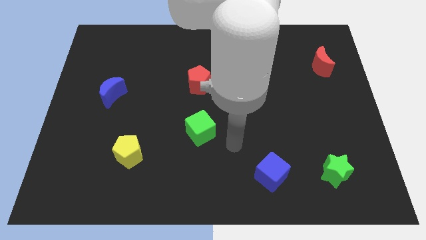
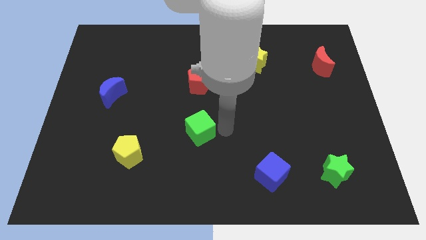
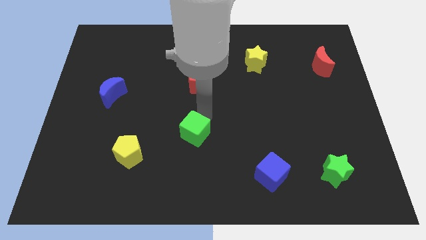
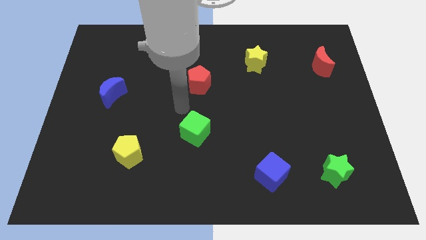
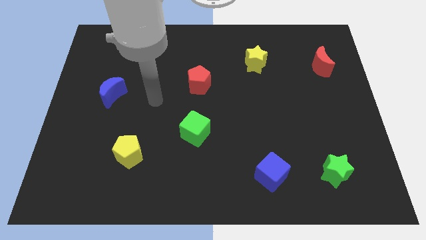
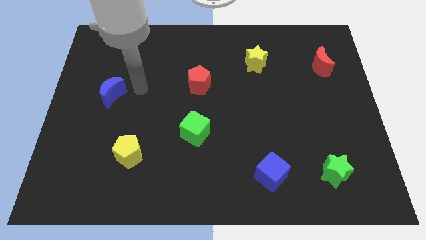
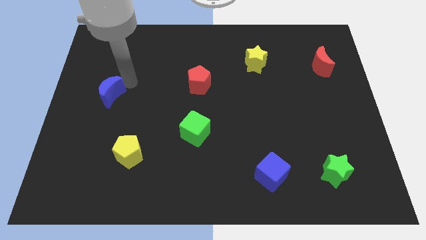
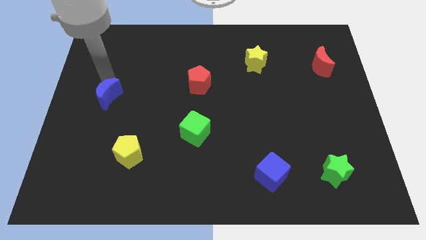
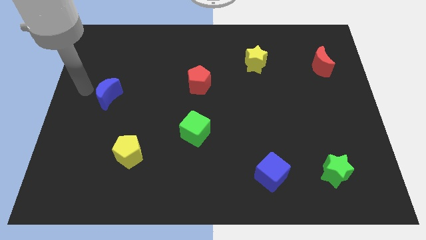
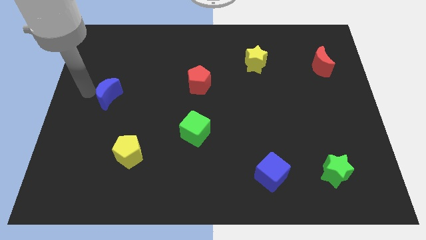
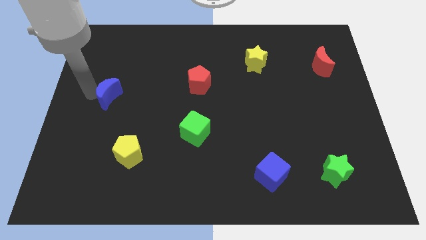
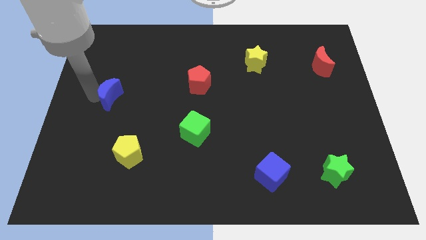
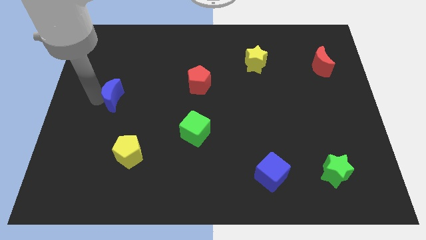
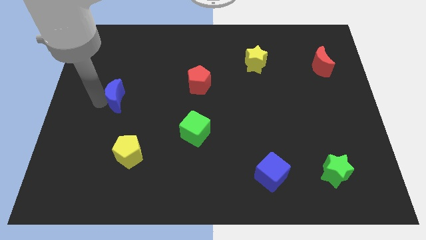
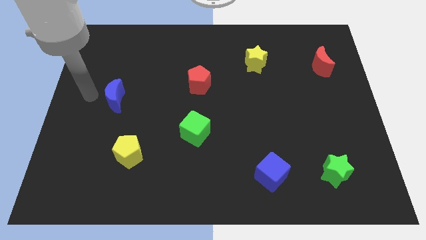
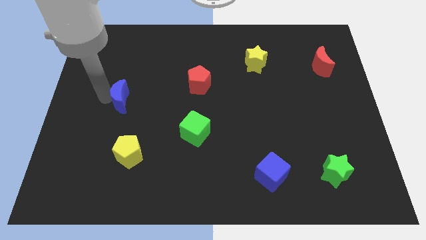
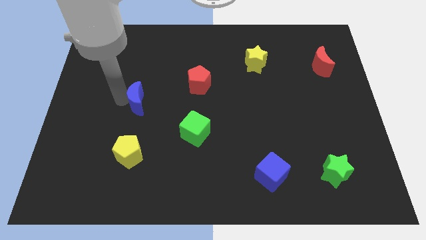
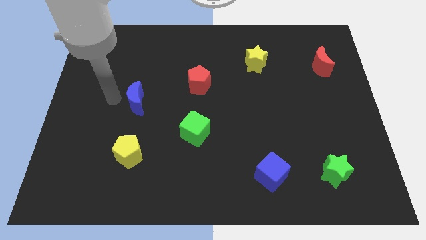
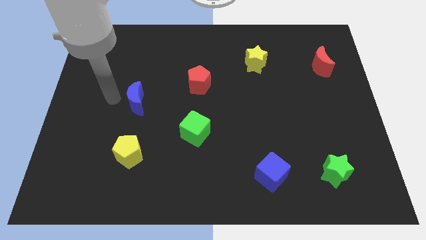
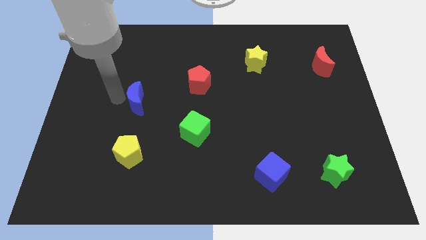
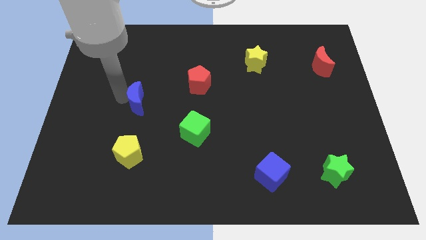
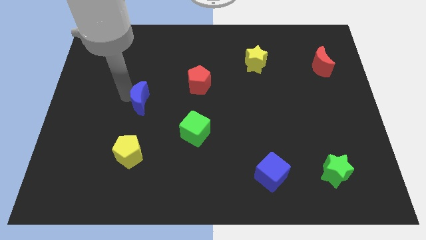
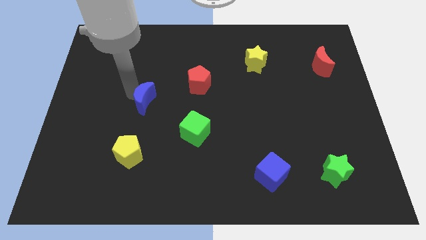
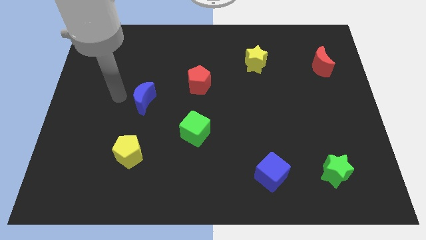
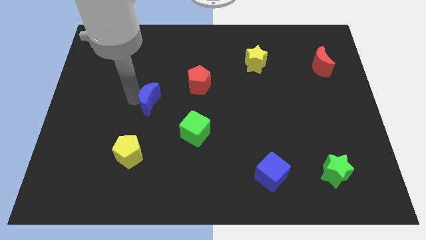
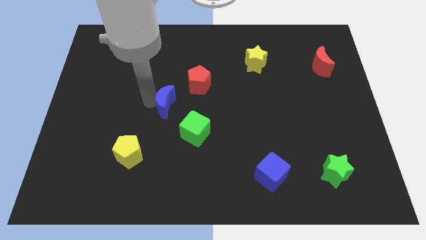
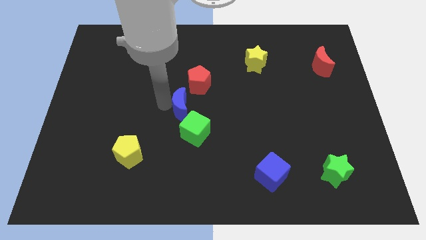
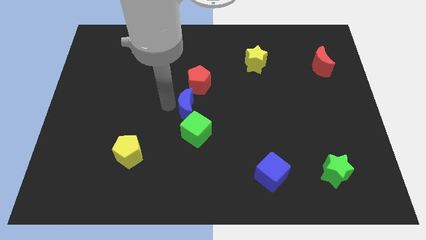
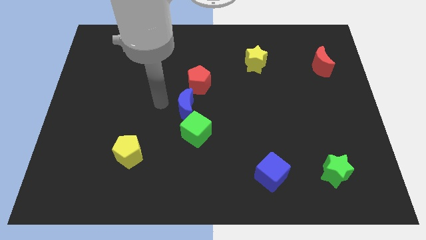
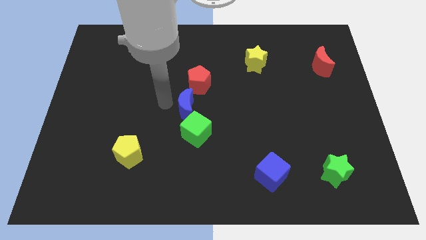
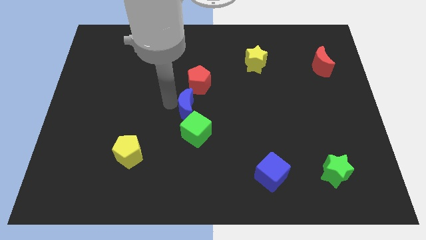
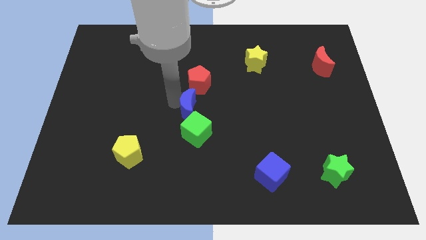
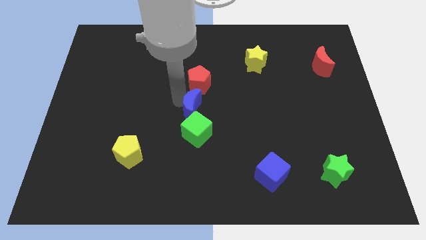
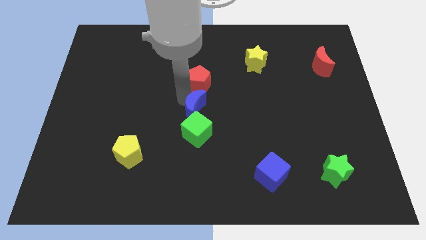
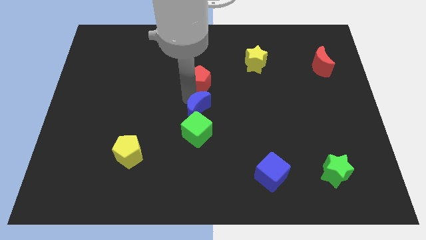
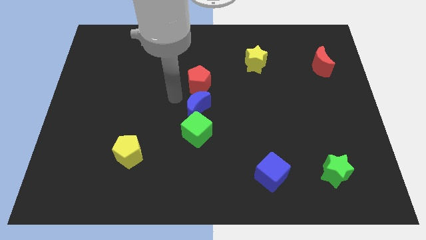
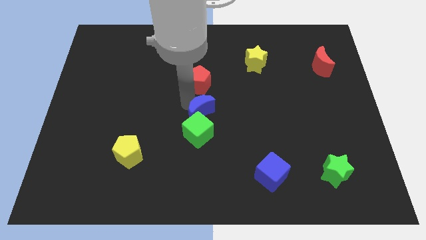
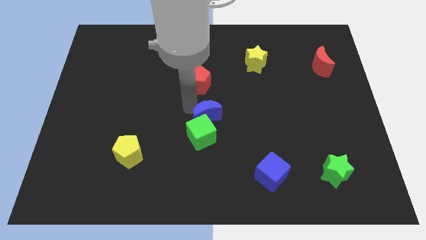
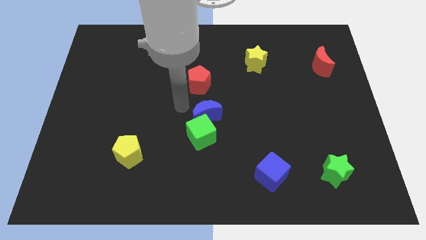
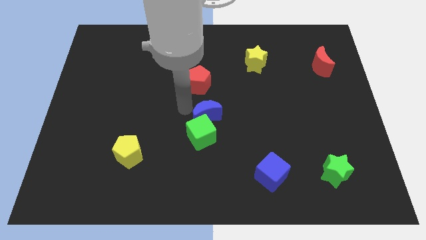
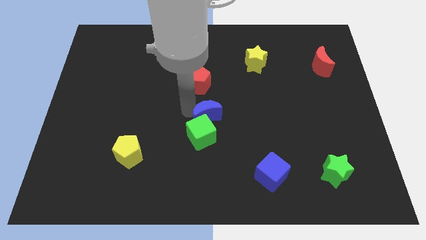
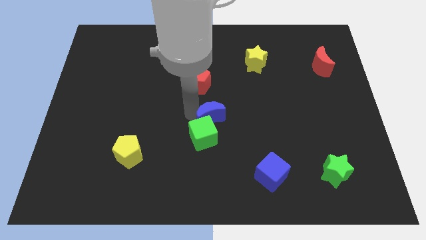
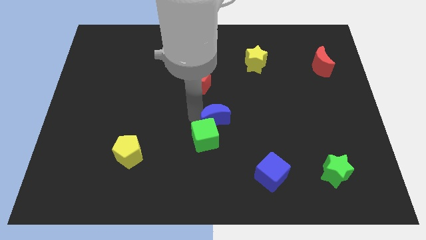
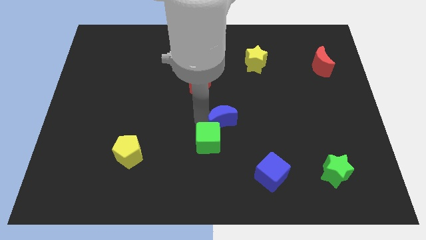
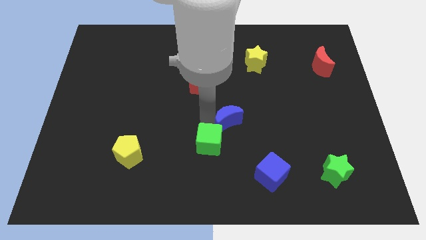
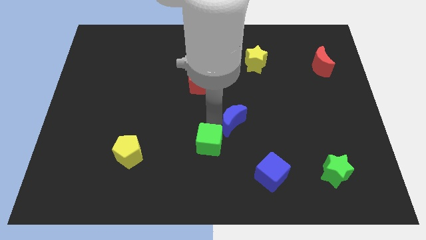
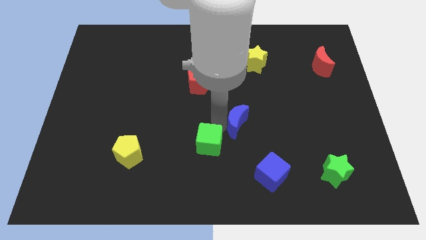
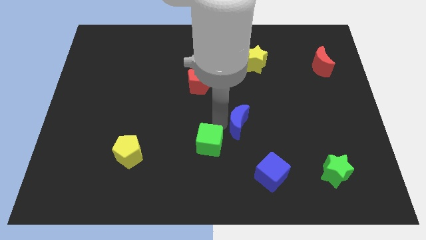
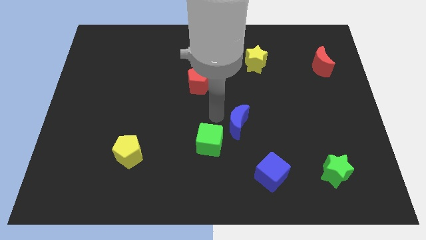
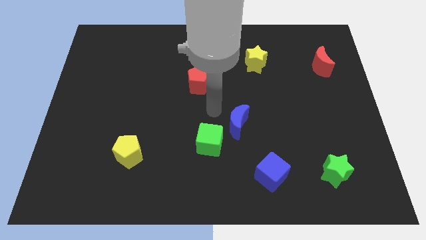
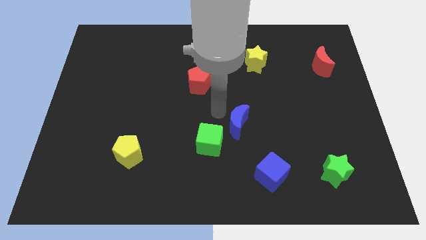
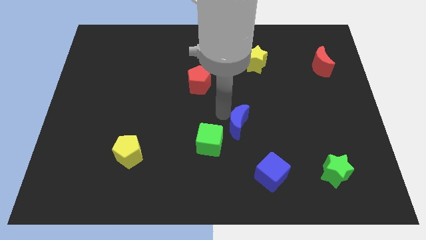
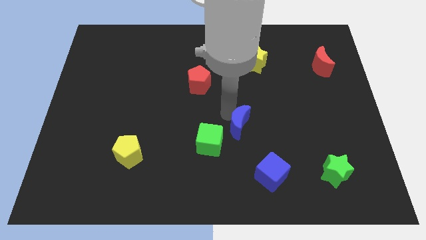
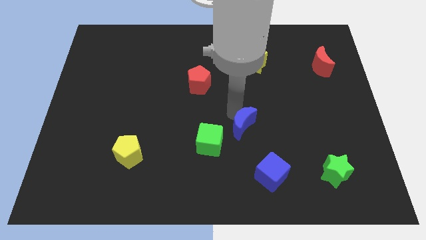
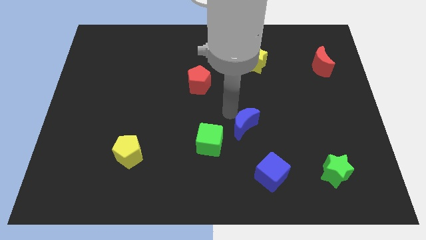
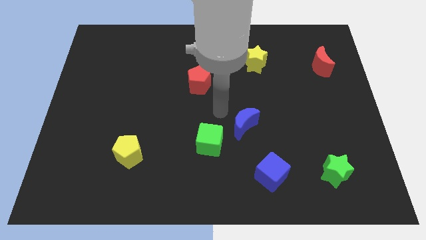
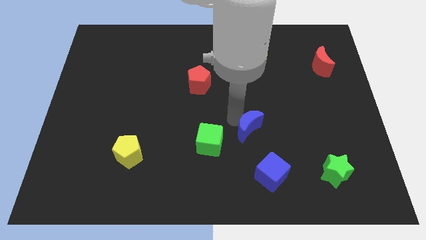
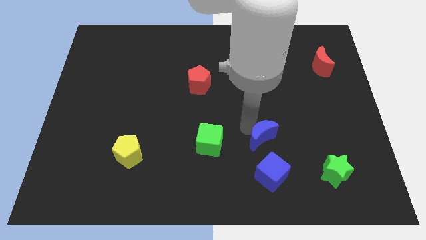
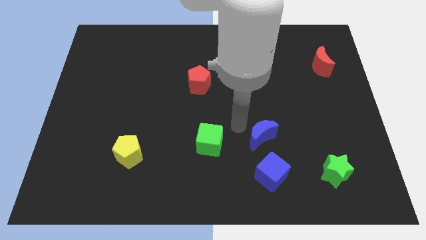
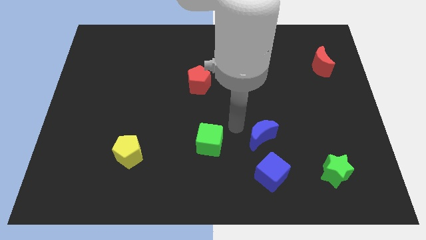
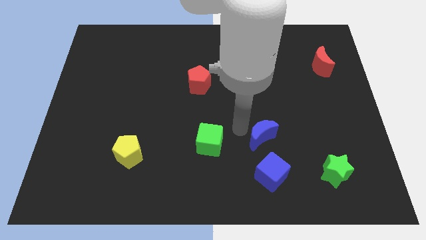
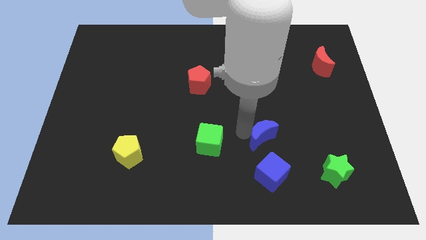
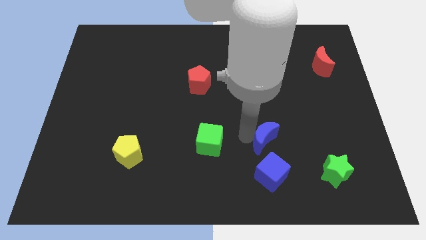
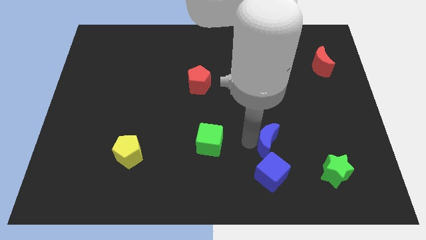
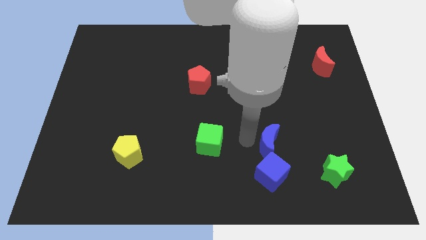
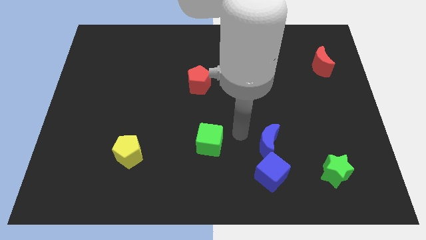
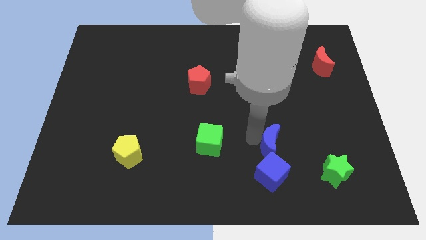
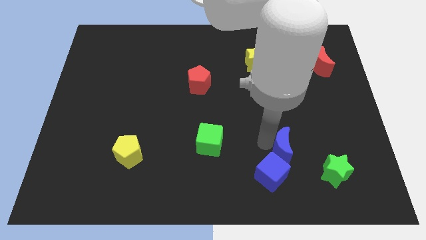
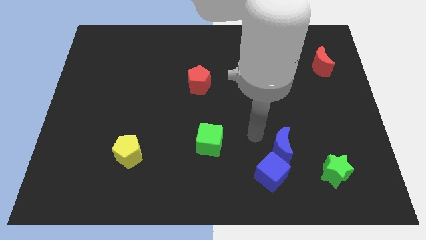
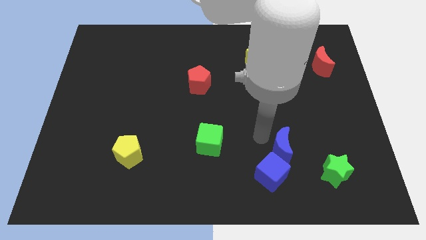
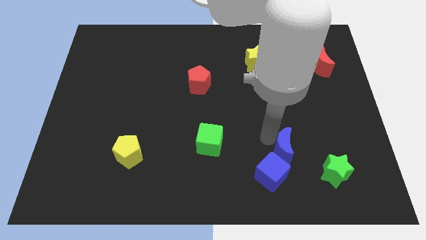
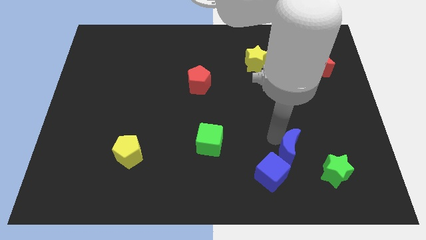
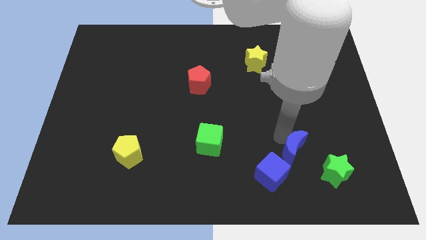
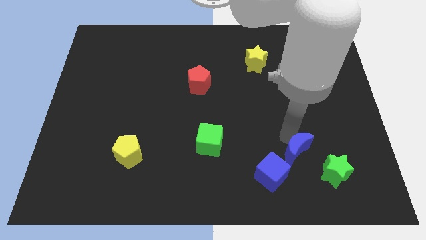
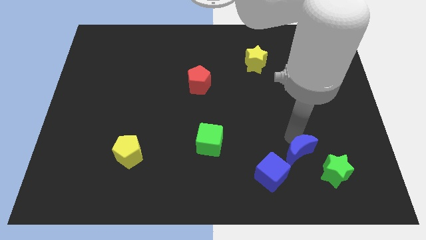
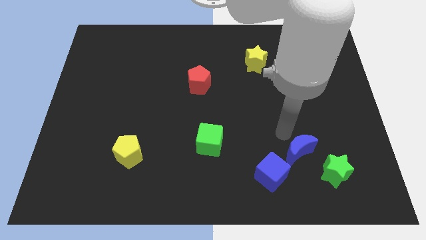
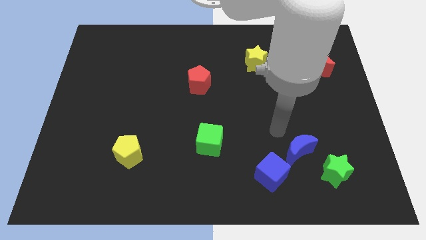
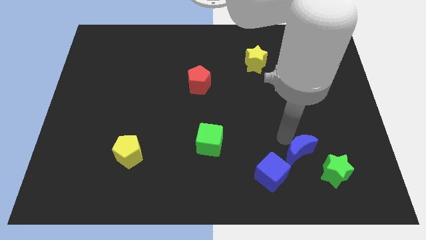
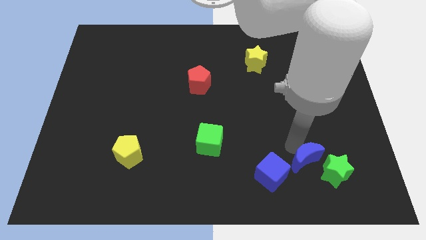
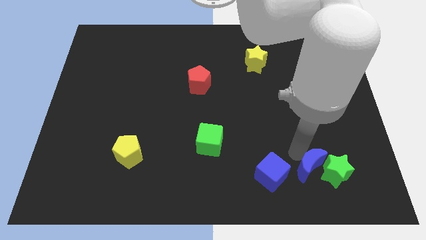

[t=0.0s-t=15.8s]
push the blue moon next to the green star
